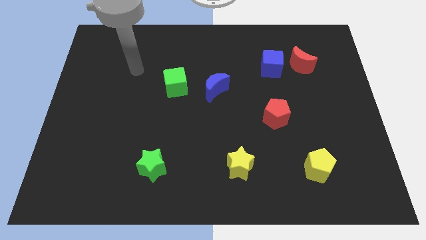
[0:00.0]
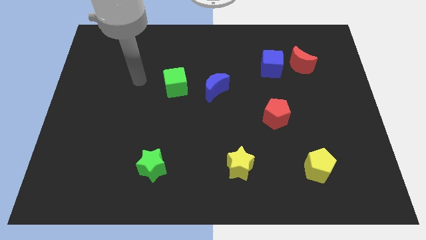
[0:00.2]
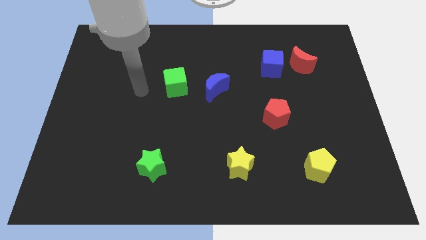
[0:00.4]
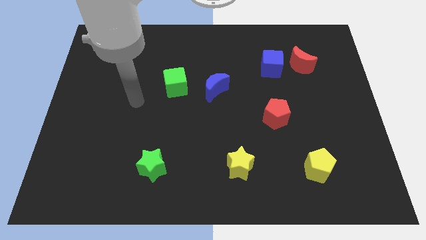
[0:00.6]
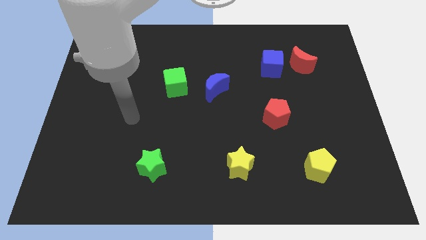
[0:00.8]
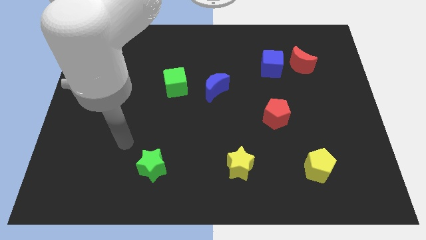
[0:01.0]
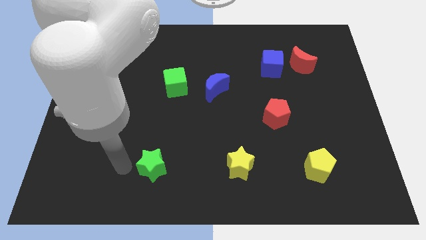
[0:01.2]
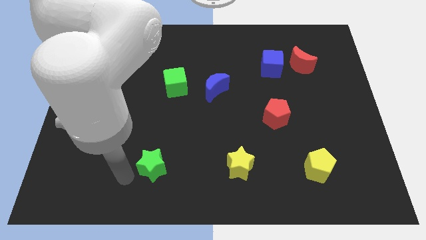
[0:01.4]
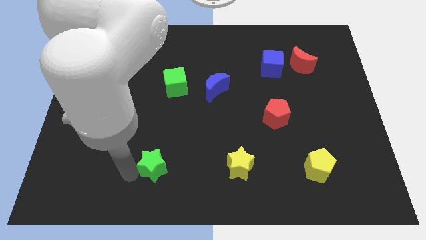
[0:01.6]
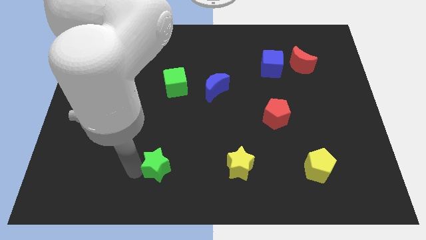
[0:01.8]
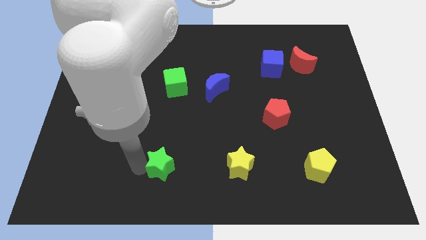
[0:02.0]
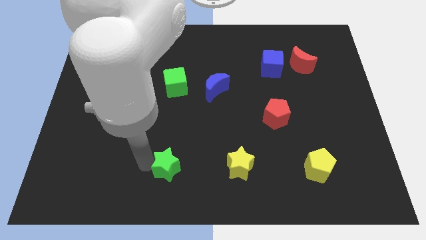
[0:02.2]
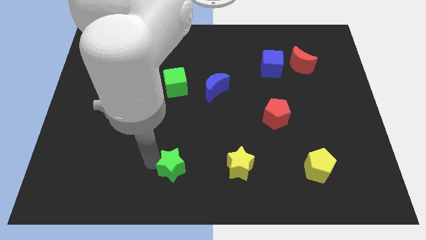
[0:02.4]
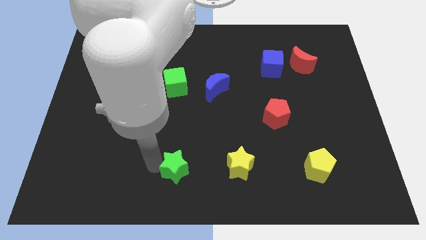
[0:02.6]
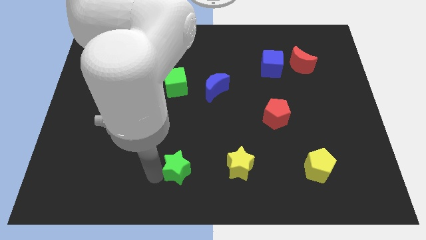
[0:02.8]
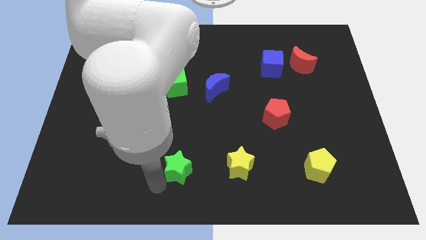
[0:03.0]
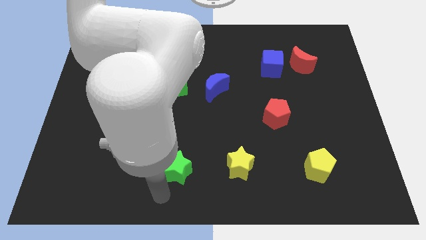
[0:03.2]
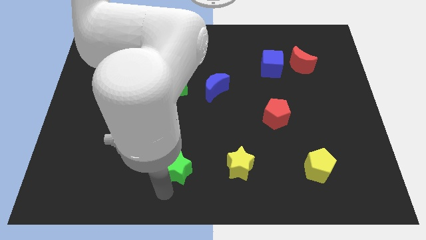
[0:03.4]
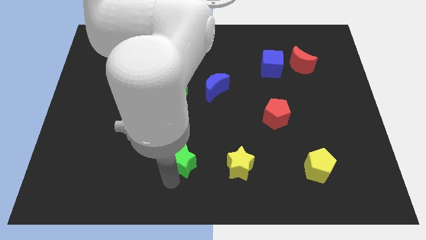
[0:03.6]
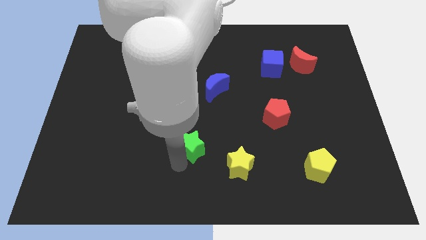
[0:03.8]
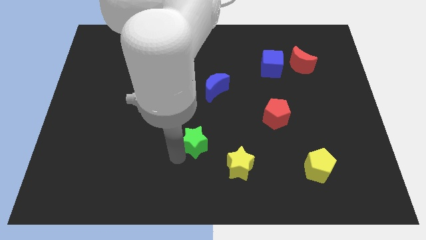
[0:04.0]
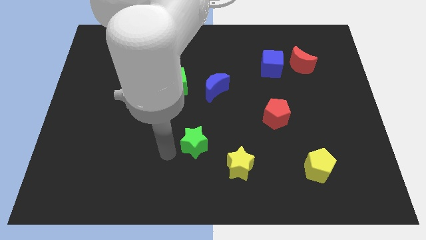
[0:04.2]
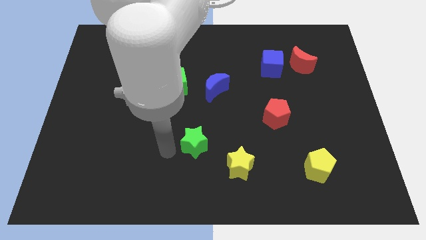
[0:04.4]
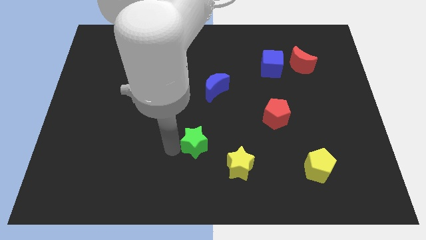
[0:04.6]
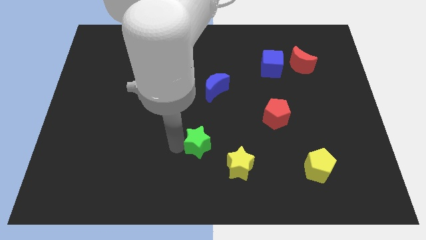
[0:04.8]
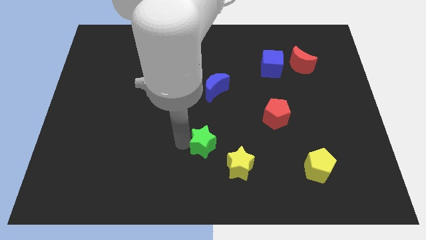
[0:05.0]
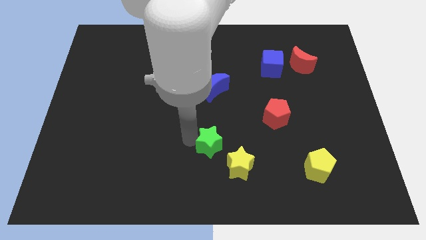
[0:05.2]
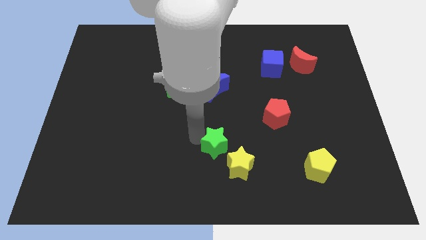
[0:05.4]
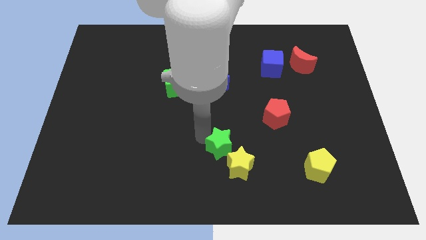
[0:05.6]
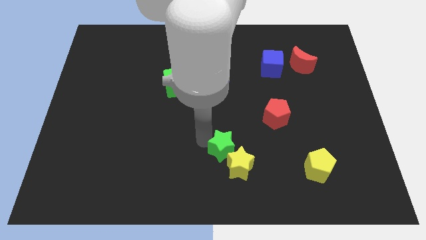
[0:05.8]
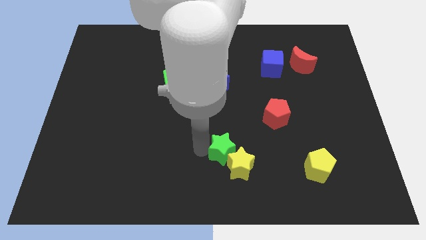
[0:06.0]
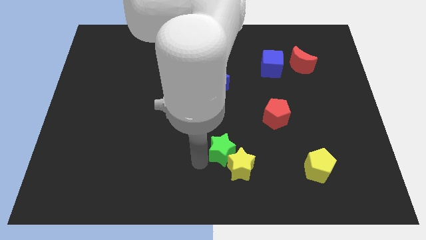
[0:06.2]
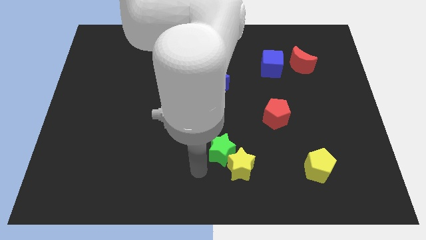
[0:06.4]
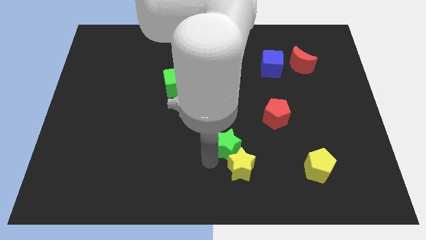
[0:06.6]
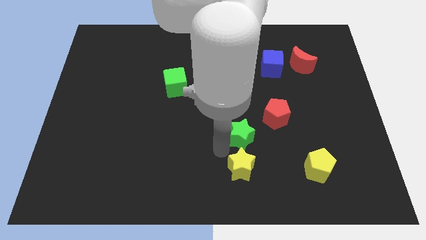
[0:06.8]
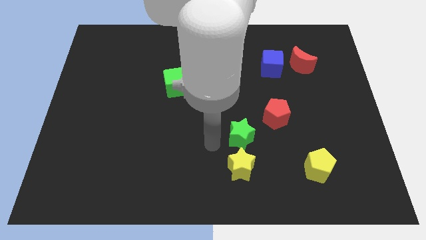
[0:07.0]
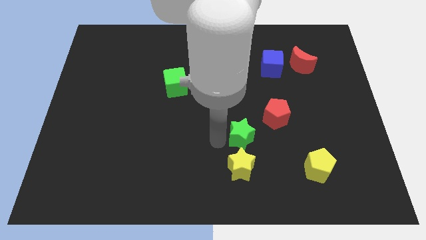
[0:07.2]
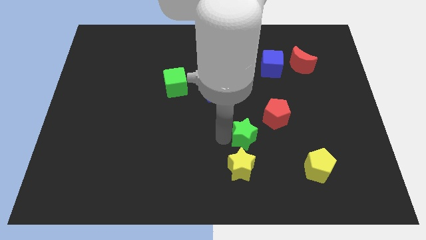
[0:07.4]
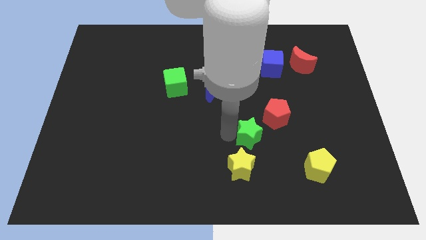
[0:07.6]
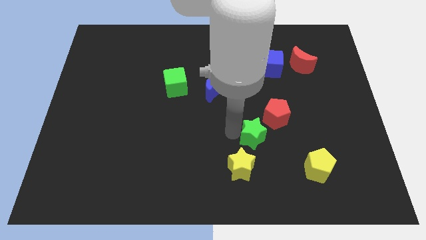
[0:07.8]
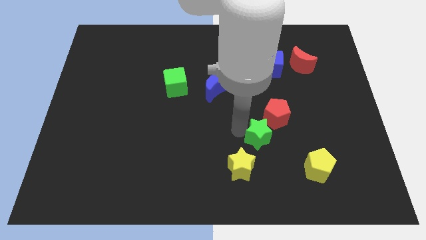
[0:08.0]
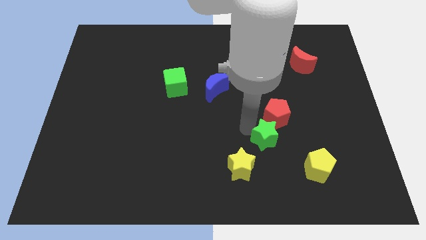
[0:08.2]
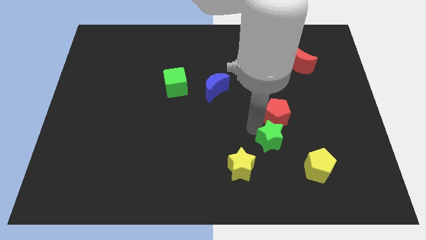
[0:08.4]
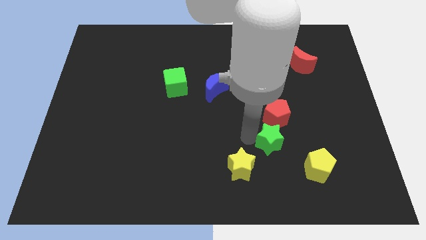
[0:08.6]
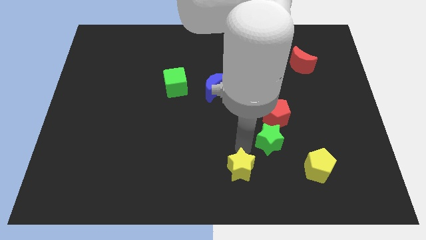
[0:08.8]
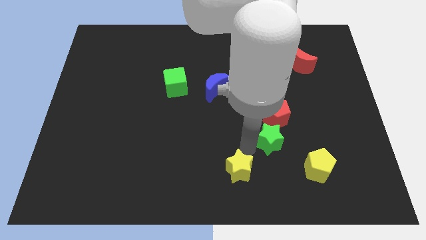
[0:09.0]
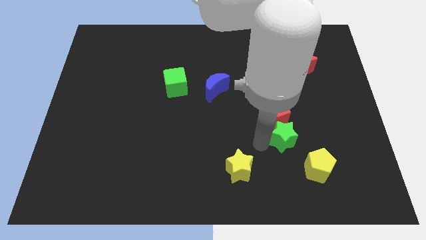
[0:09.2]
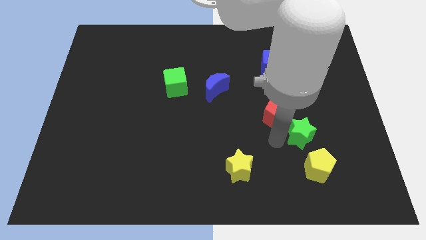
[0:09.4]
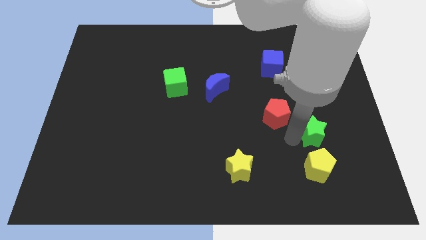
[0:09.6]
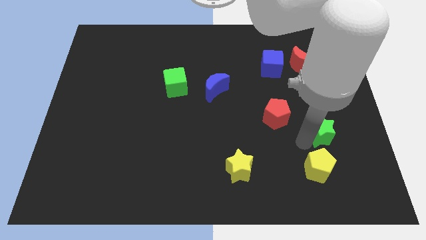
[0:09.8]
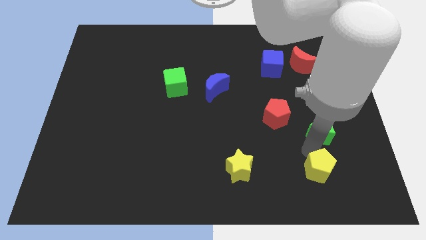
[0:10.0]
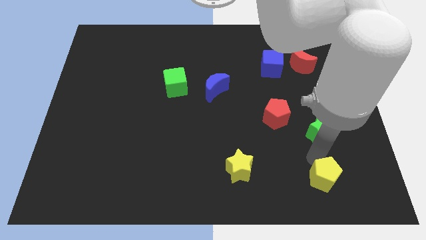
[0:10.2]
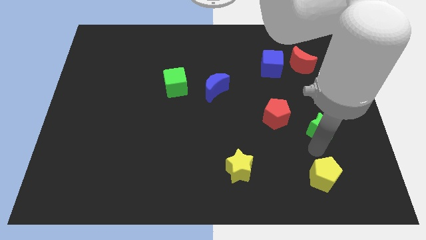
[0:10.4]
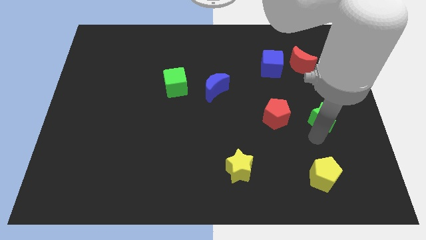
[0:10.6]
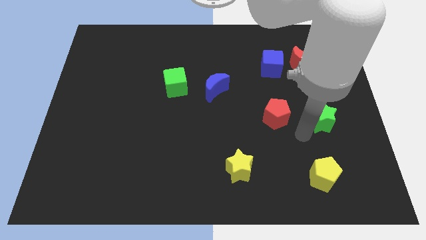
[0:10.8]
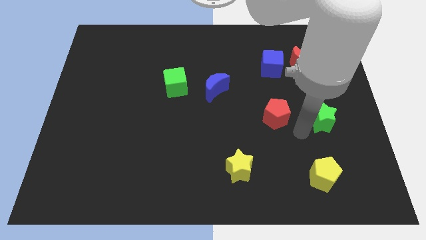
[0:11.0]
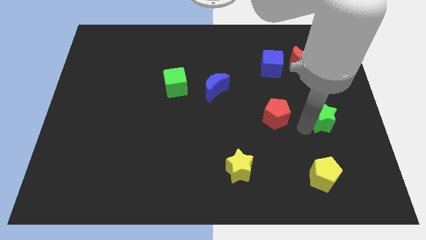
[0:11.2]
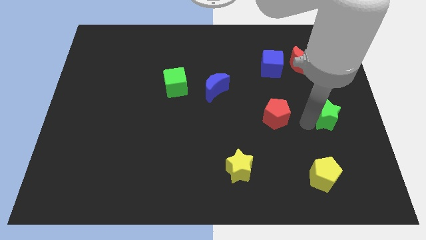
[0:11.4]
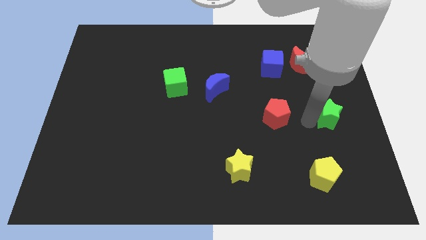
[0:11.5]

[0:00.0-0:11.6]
put the green star to the right side

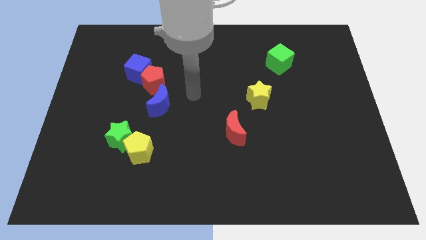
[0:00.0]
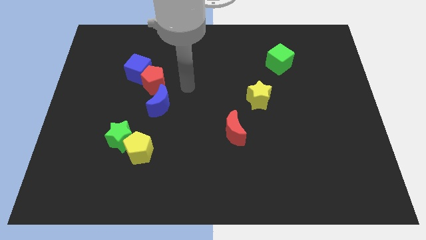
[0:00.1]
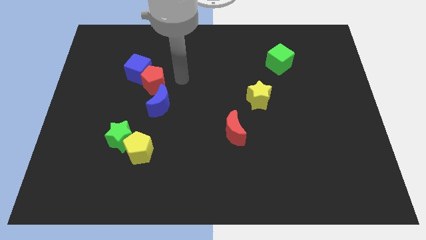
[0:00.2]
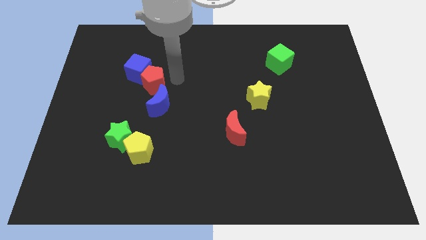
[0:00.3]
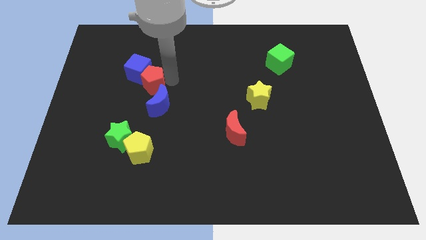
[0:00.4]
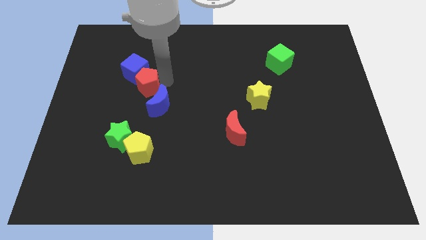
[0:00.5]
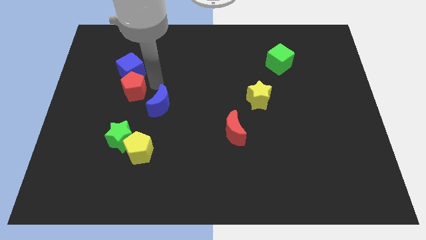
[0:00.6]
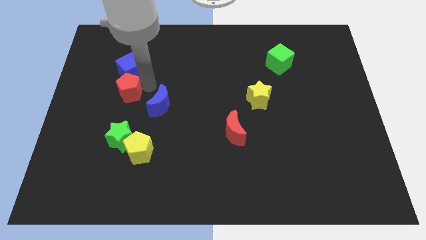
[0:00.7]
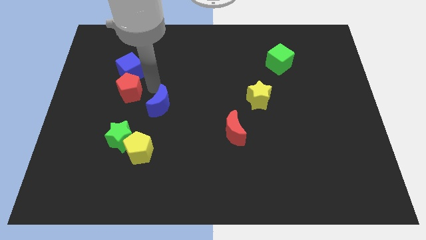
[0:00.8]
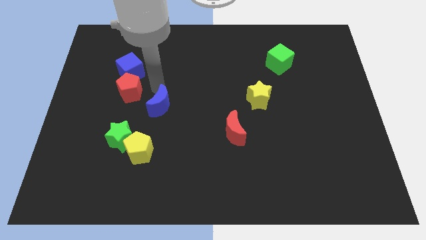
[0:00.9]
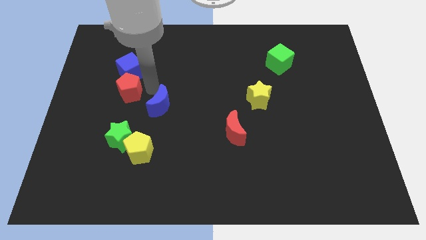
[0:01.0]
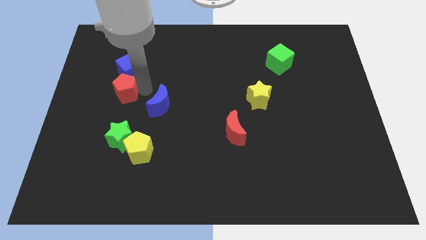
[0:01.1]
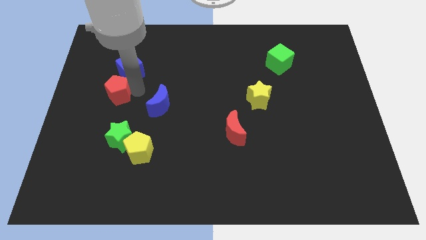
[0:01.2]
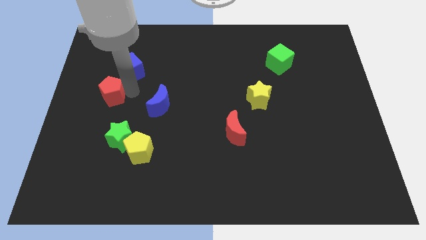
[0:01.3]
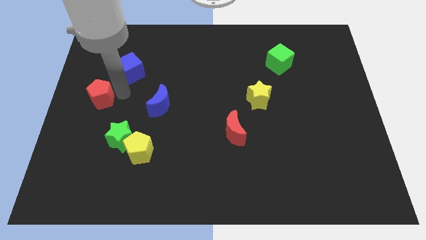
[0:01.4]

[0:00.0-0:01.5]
put the red pentagon to the center left
